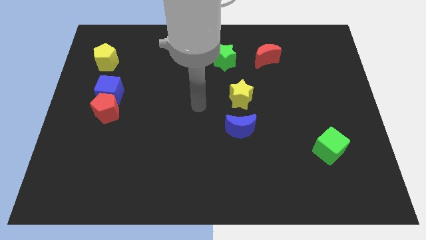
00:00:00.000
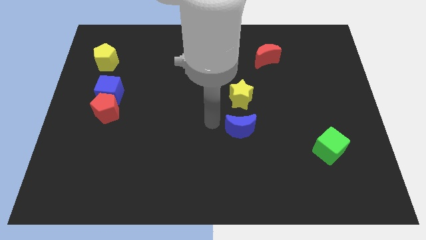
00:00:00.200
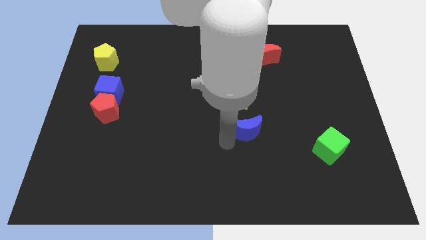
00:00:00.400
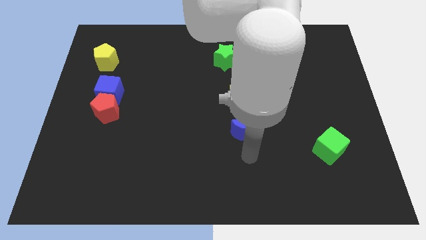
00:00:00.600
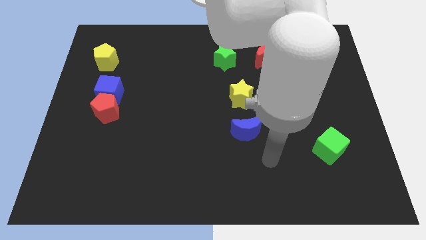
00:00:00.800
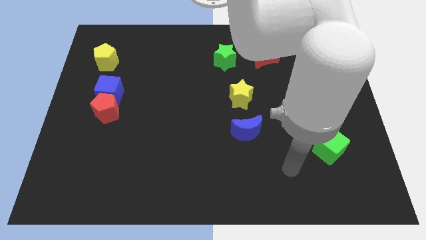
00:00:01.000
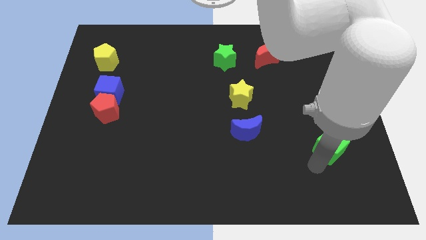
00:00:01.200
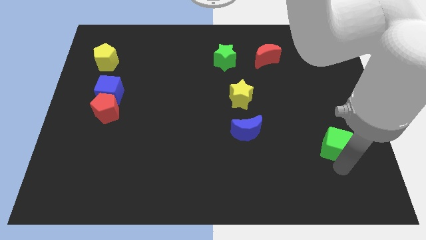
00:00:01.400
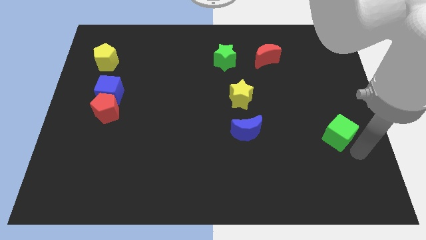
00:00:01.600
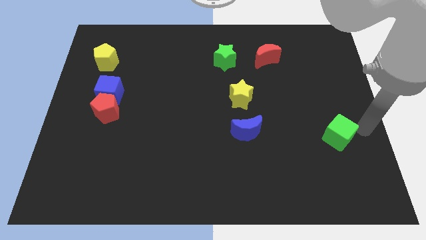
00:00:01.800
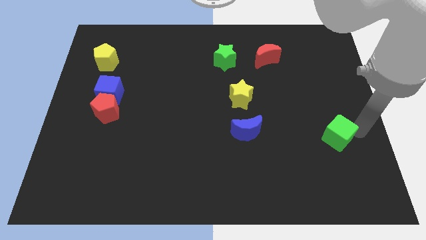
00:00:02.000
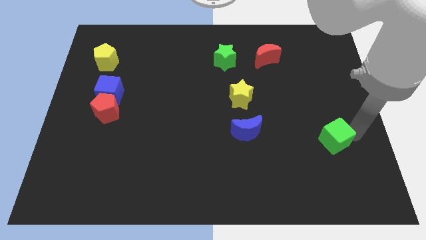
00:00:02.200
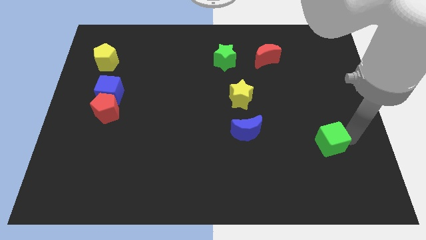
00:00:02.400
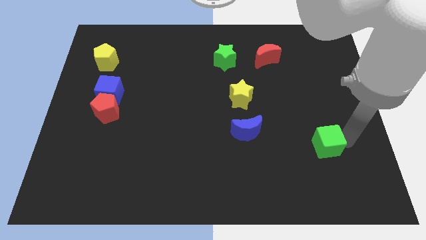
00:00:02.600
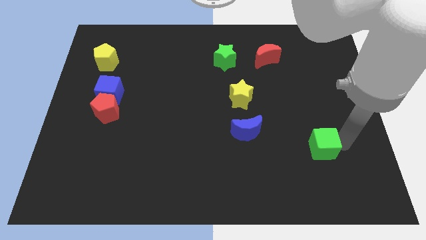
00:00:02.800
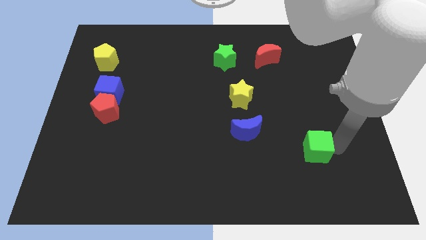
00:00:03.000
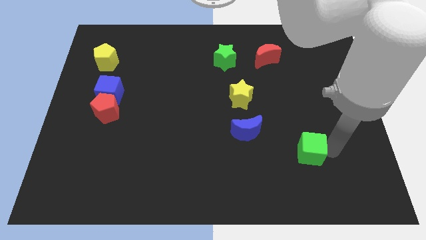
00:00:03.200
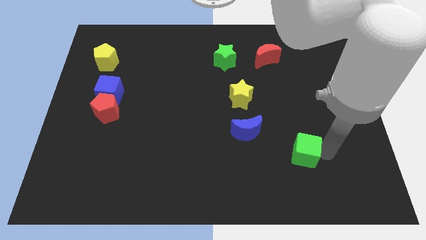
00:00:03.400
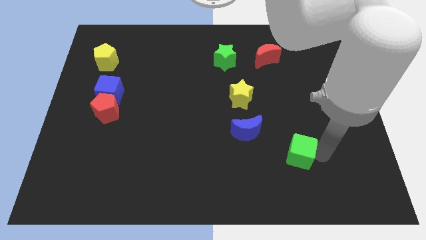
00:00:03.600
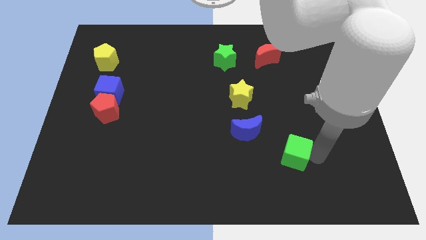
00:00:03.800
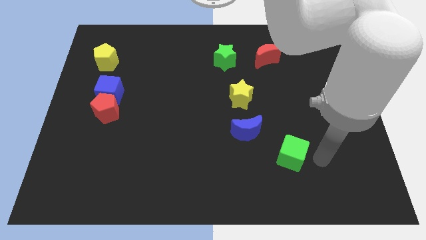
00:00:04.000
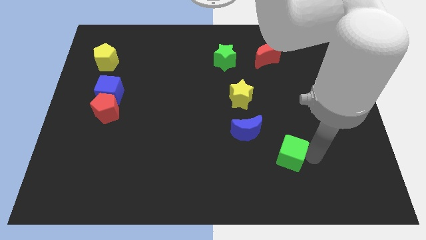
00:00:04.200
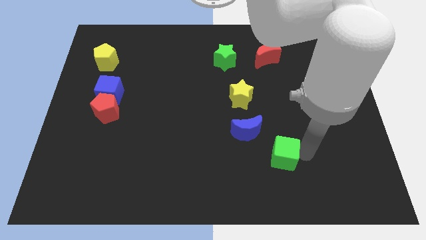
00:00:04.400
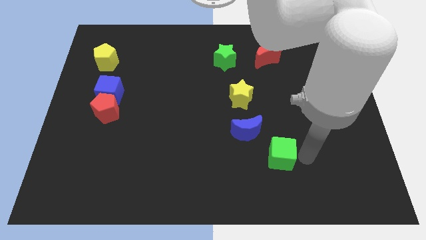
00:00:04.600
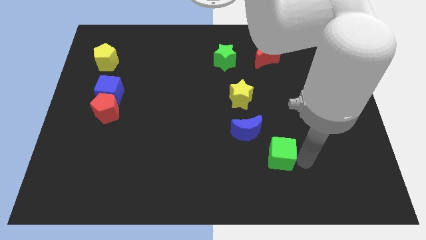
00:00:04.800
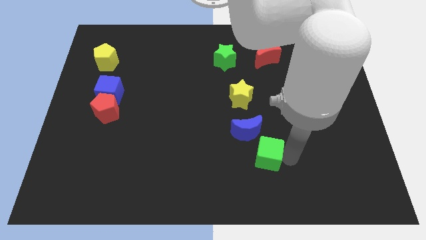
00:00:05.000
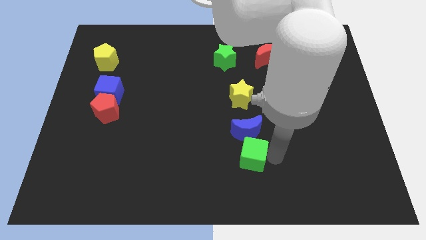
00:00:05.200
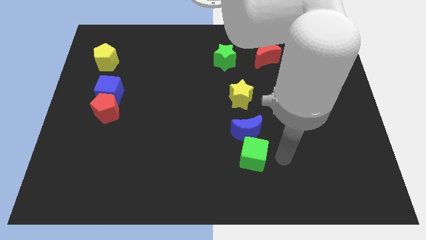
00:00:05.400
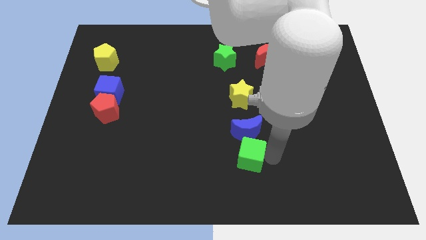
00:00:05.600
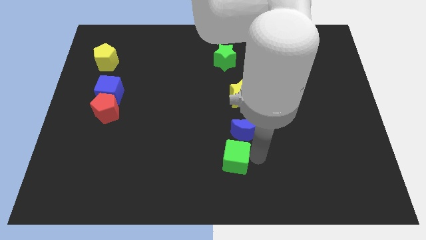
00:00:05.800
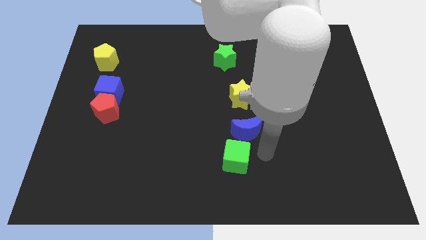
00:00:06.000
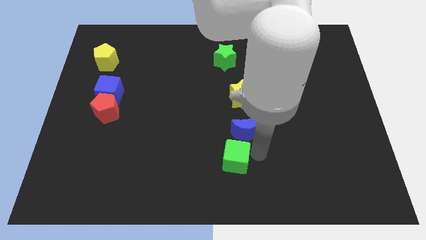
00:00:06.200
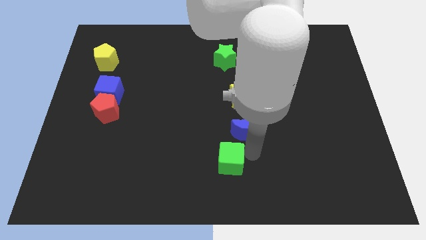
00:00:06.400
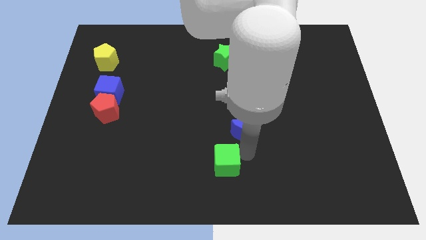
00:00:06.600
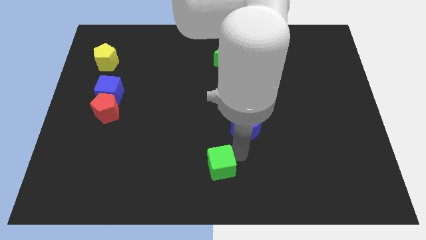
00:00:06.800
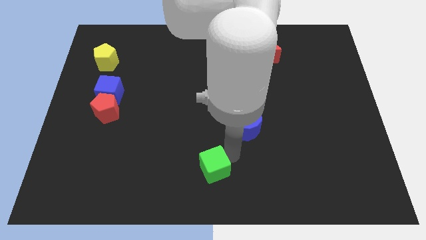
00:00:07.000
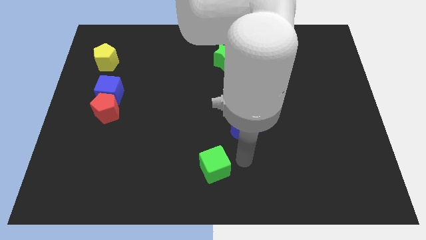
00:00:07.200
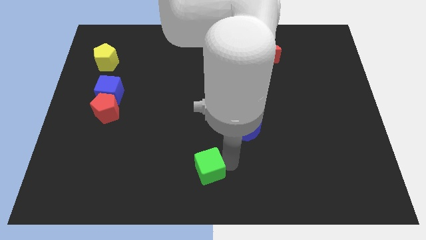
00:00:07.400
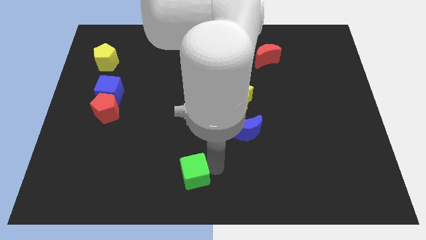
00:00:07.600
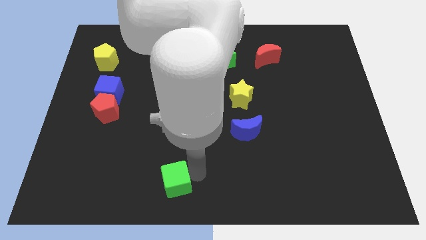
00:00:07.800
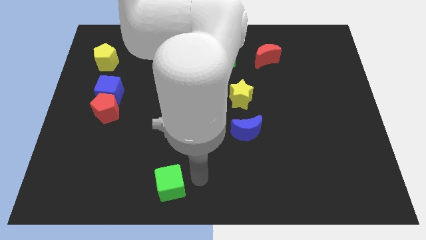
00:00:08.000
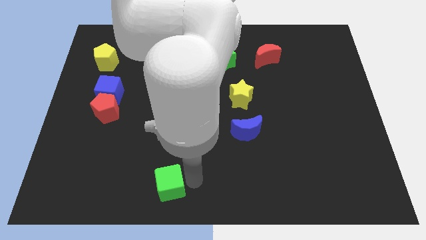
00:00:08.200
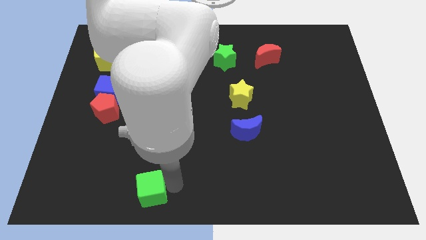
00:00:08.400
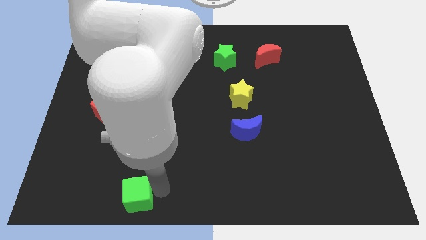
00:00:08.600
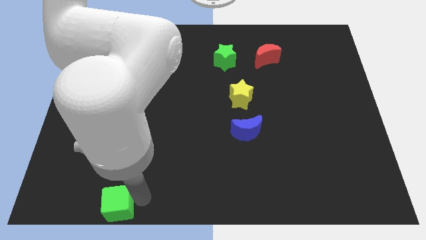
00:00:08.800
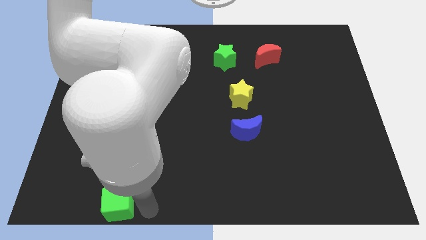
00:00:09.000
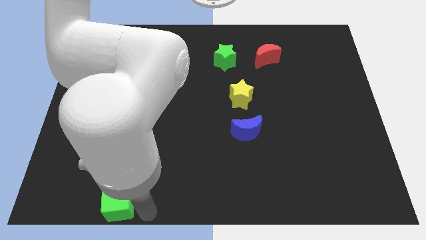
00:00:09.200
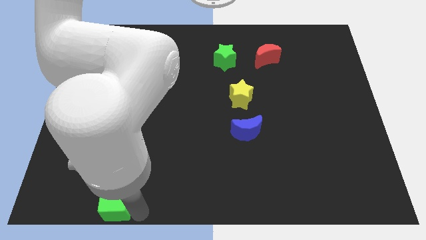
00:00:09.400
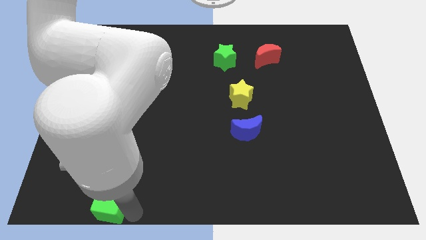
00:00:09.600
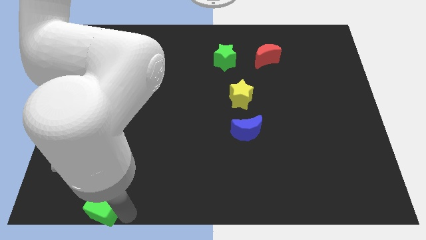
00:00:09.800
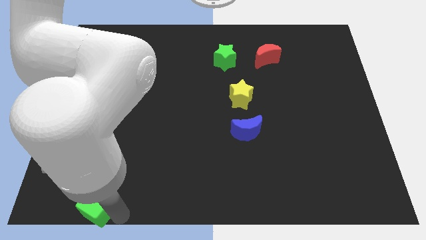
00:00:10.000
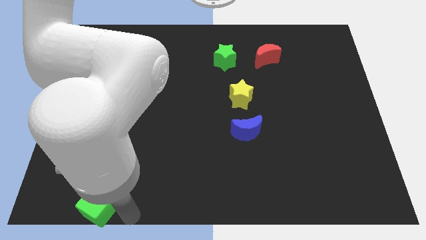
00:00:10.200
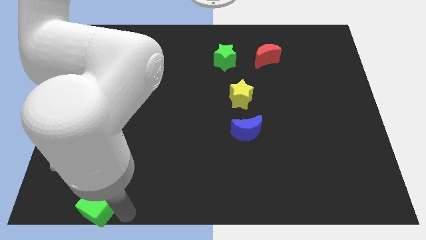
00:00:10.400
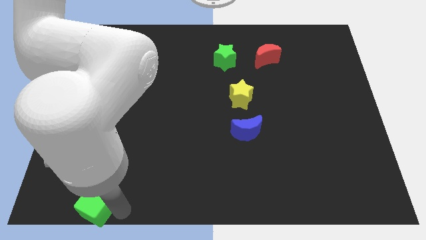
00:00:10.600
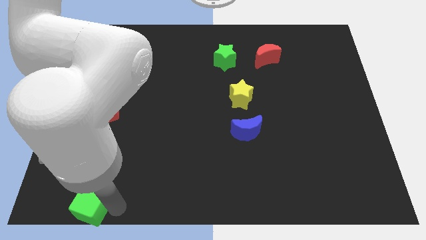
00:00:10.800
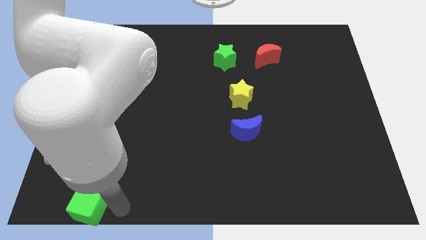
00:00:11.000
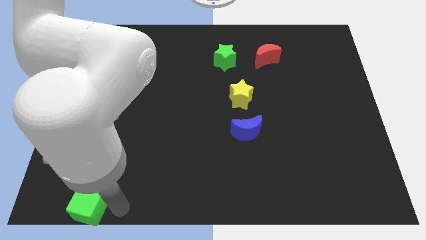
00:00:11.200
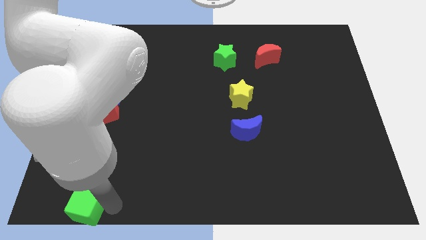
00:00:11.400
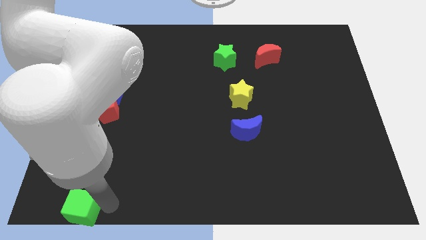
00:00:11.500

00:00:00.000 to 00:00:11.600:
slide the green cube to the lower left corner

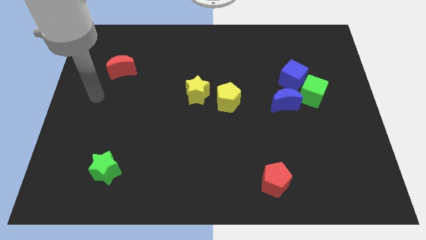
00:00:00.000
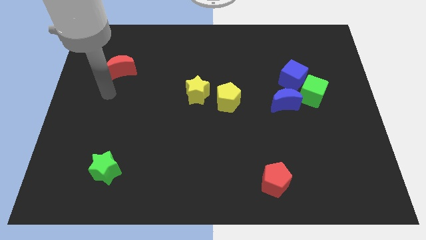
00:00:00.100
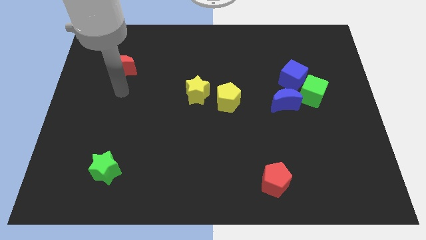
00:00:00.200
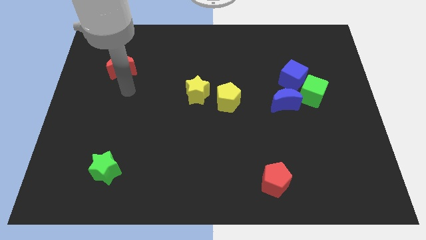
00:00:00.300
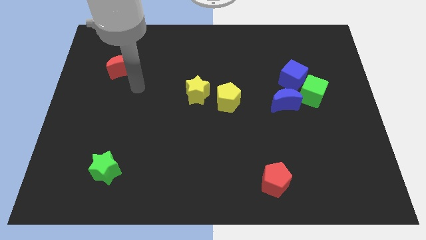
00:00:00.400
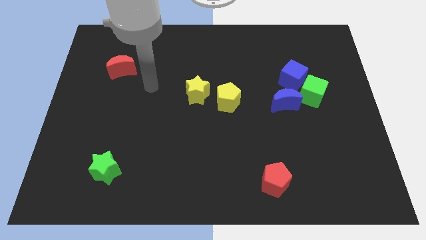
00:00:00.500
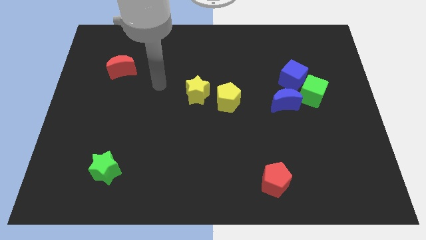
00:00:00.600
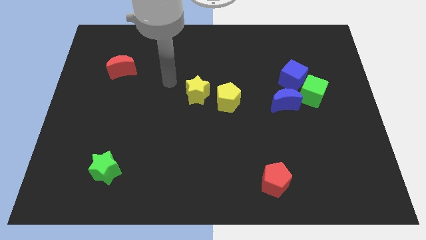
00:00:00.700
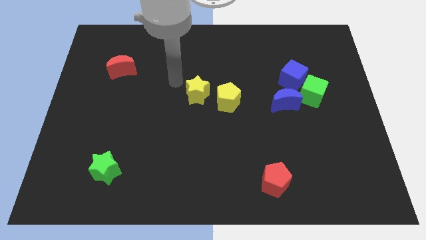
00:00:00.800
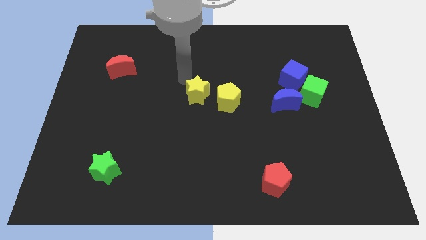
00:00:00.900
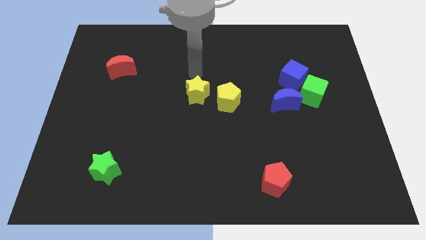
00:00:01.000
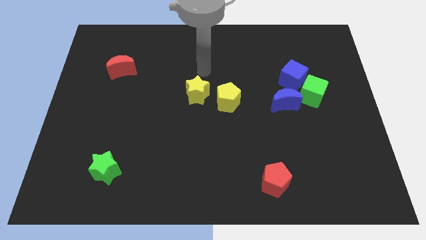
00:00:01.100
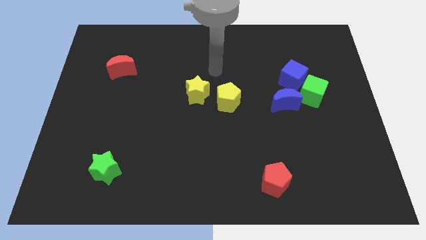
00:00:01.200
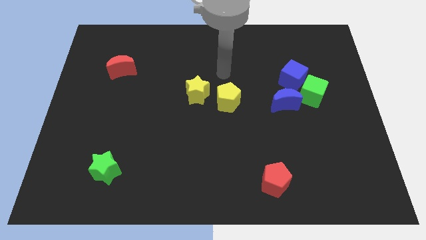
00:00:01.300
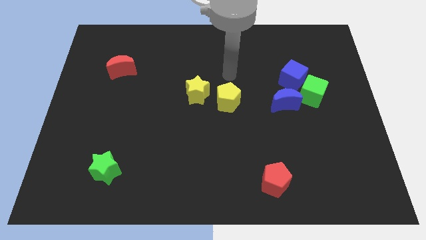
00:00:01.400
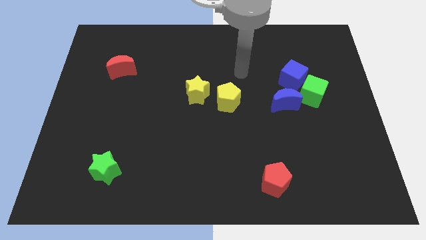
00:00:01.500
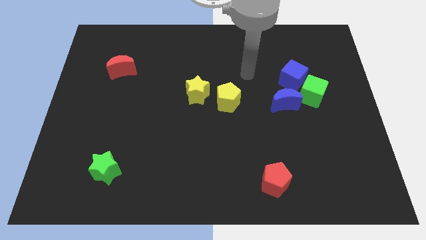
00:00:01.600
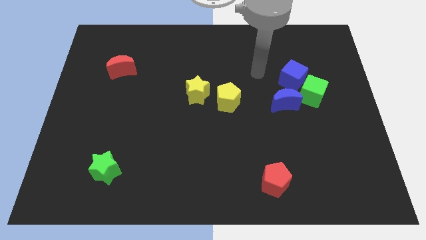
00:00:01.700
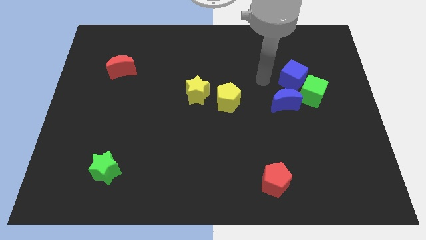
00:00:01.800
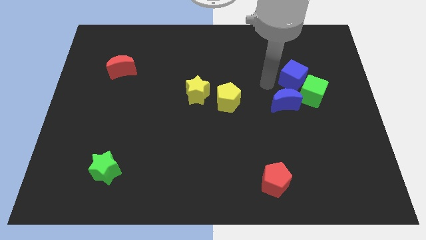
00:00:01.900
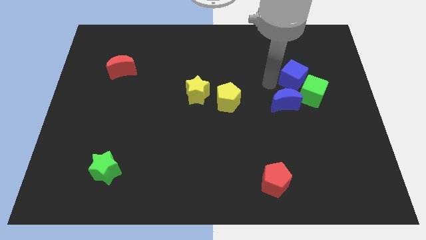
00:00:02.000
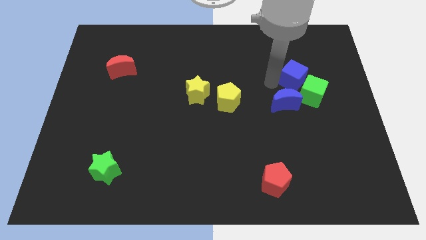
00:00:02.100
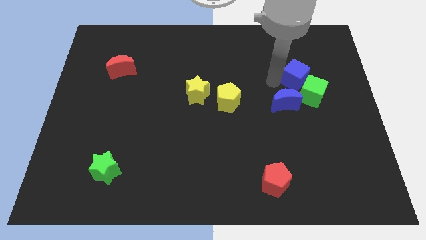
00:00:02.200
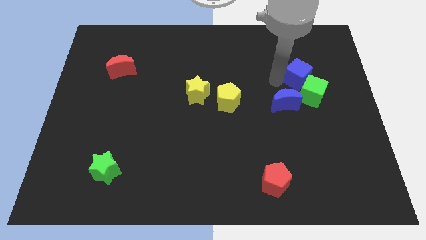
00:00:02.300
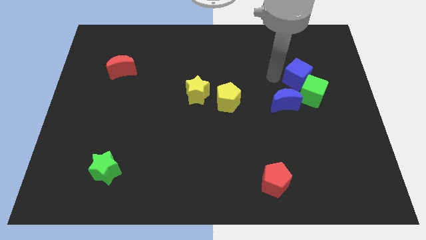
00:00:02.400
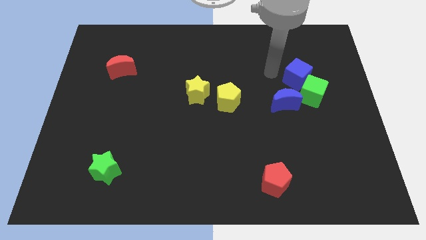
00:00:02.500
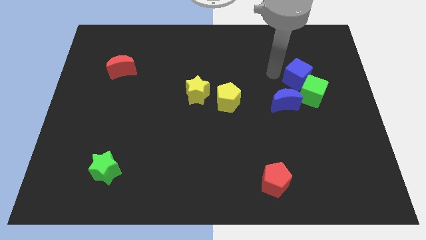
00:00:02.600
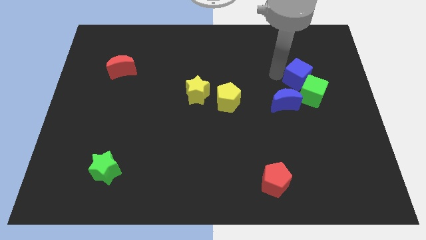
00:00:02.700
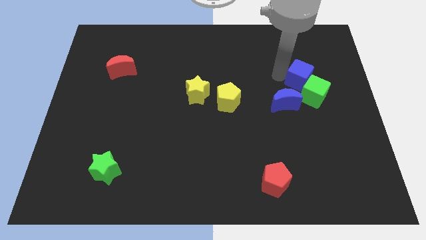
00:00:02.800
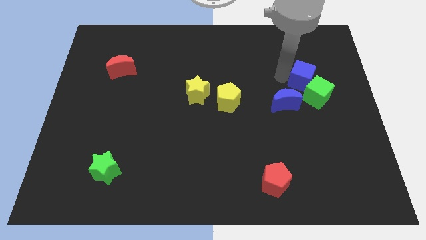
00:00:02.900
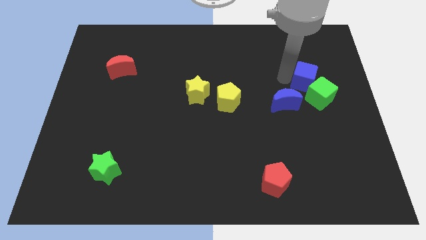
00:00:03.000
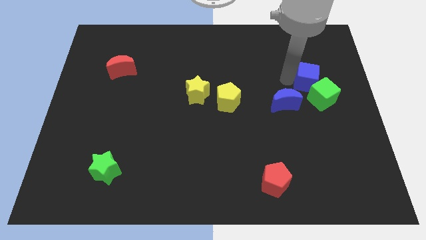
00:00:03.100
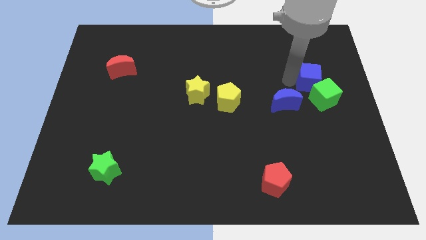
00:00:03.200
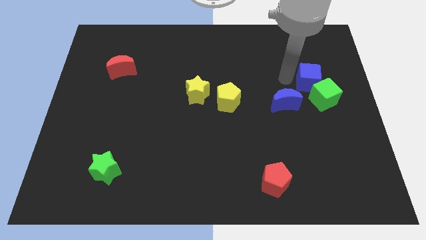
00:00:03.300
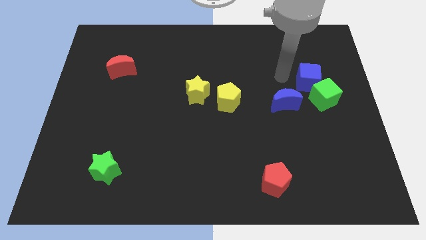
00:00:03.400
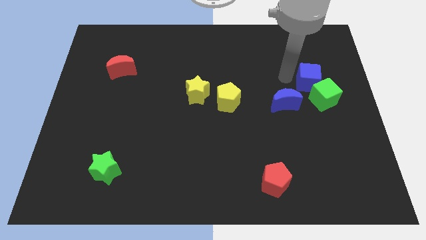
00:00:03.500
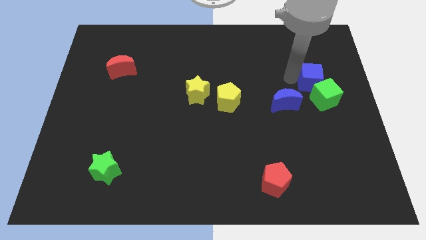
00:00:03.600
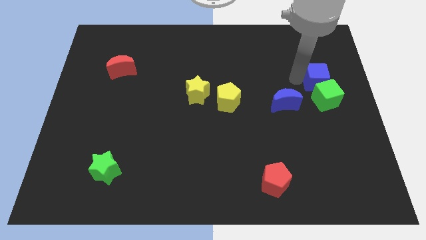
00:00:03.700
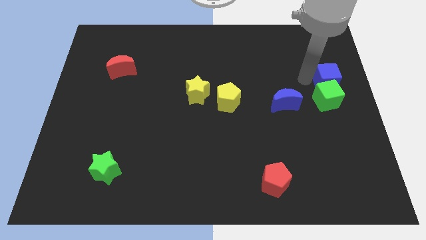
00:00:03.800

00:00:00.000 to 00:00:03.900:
push the blue cube to the right side of the board
